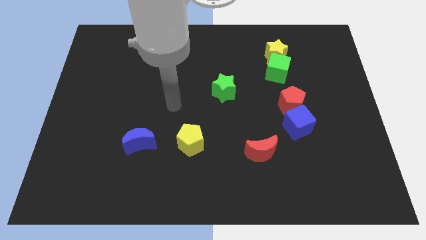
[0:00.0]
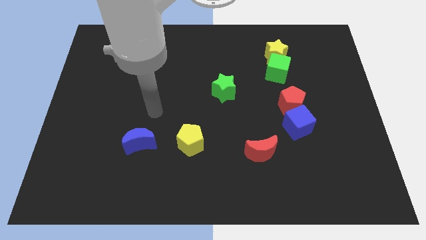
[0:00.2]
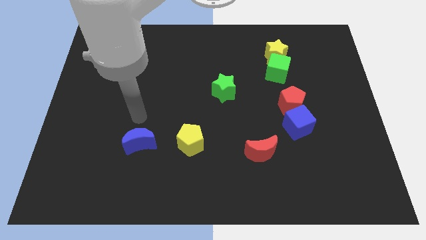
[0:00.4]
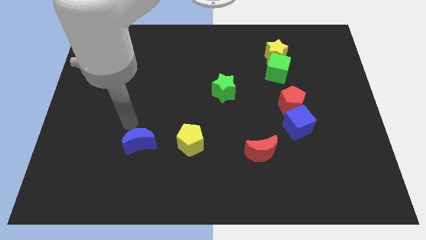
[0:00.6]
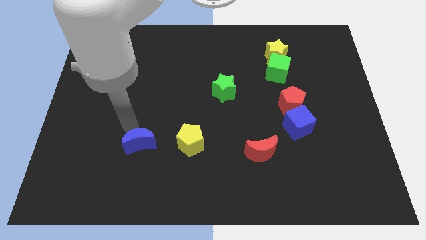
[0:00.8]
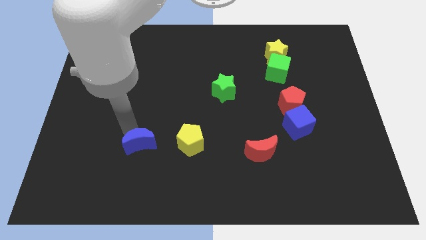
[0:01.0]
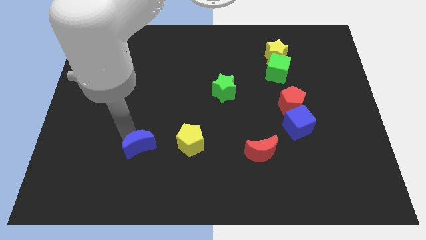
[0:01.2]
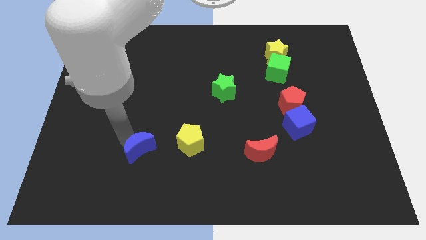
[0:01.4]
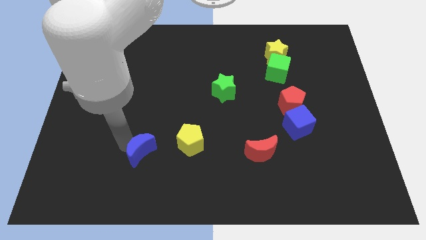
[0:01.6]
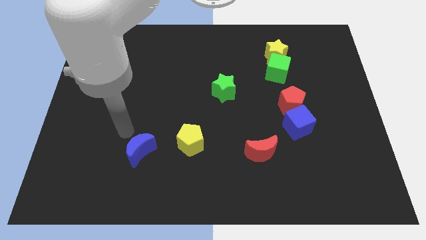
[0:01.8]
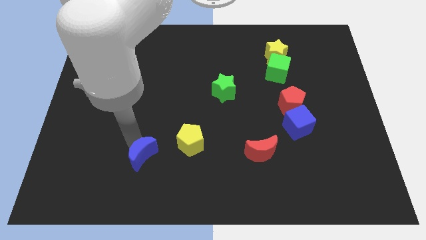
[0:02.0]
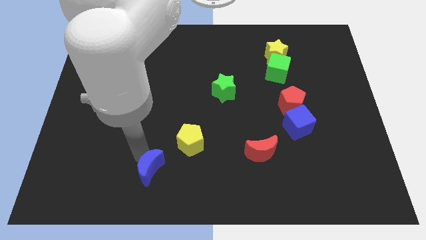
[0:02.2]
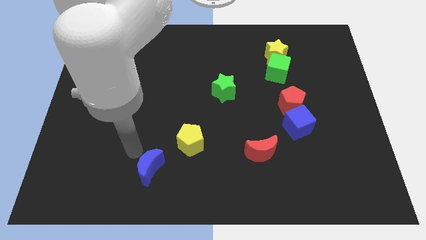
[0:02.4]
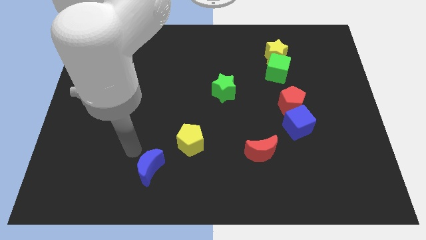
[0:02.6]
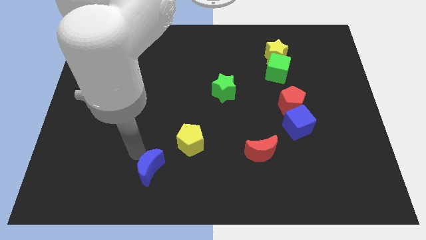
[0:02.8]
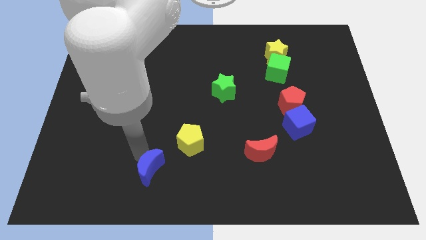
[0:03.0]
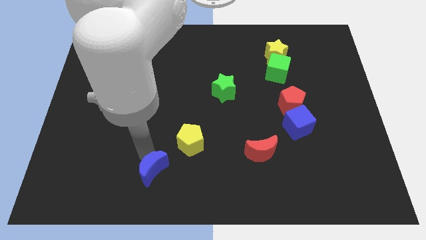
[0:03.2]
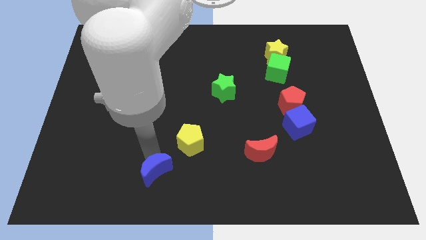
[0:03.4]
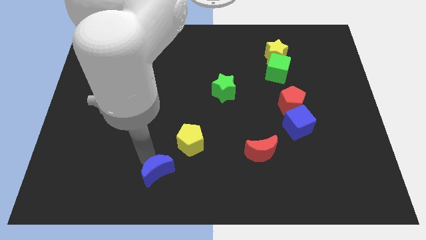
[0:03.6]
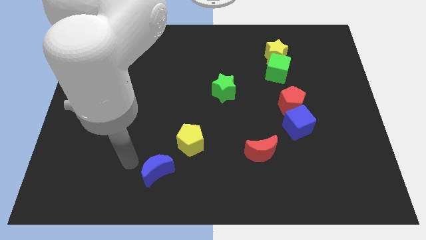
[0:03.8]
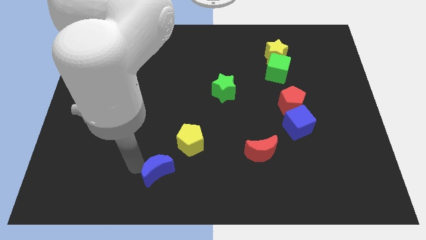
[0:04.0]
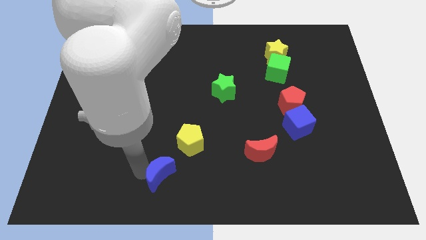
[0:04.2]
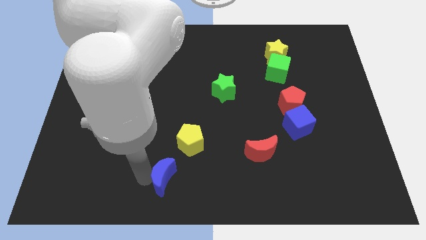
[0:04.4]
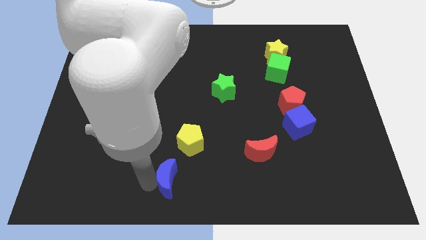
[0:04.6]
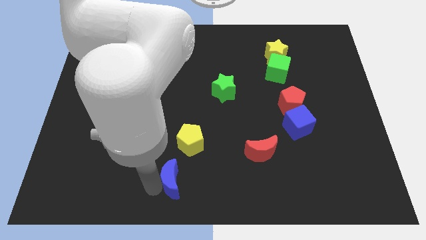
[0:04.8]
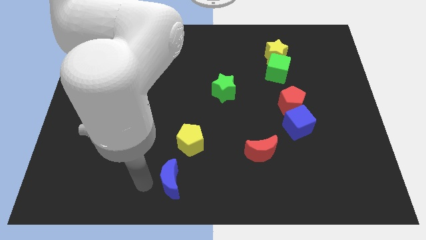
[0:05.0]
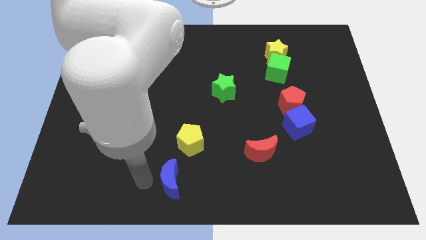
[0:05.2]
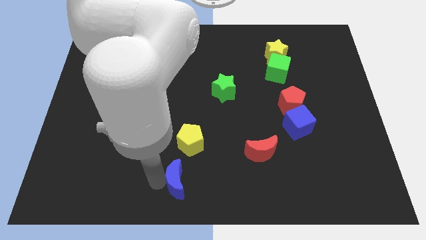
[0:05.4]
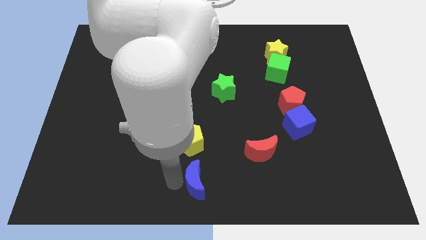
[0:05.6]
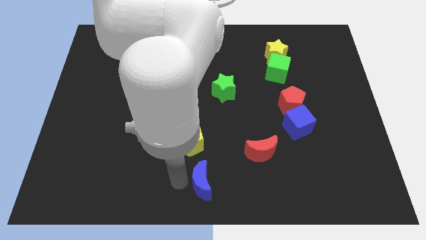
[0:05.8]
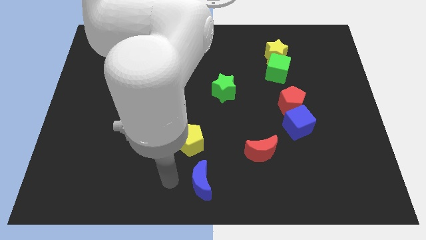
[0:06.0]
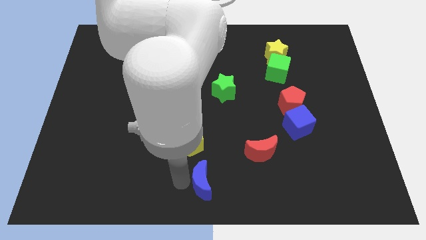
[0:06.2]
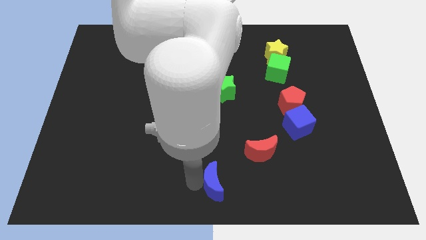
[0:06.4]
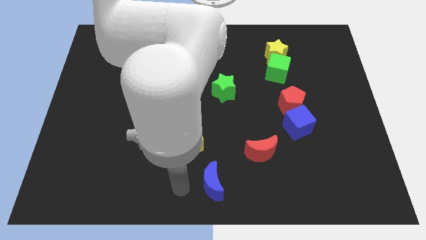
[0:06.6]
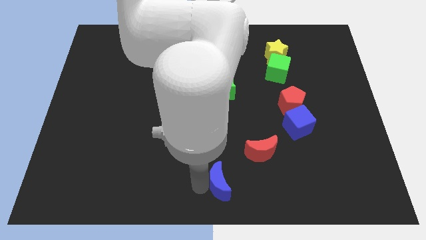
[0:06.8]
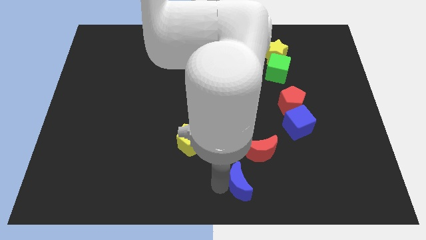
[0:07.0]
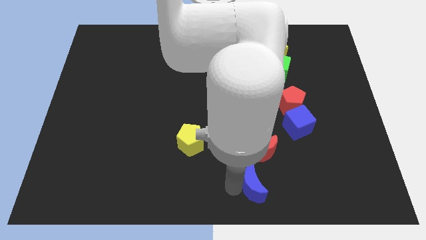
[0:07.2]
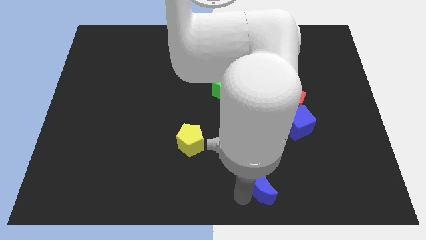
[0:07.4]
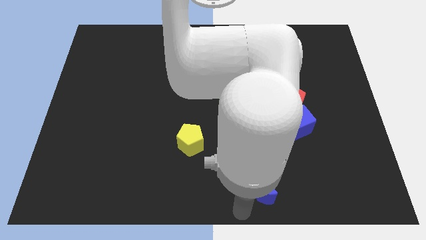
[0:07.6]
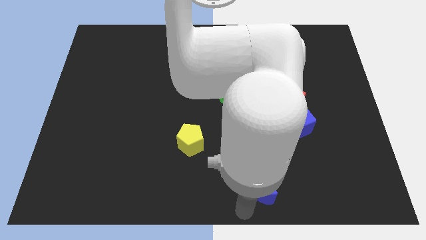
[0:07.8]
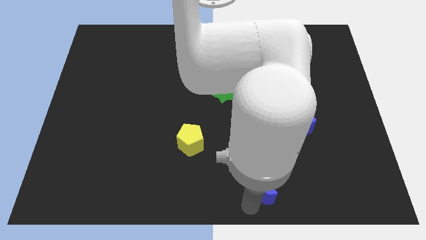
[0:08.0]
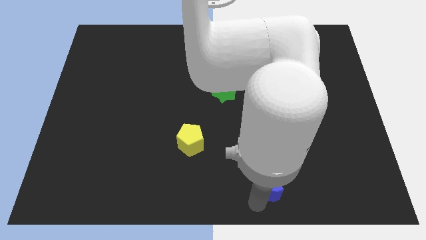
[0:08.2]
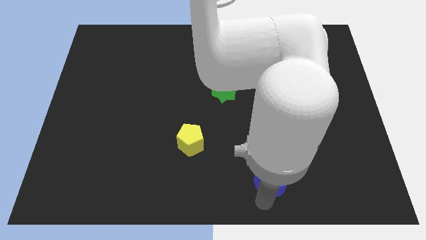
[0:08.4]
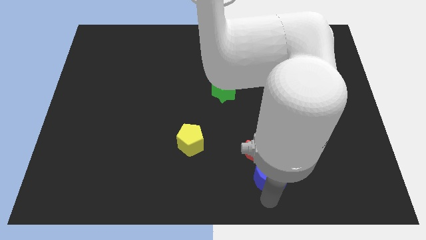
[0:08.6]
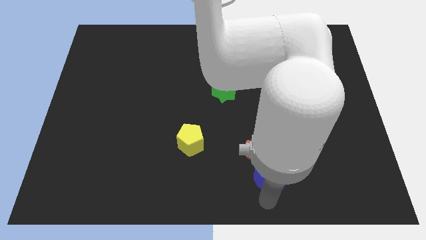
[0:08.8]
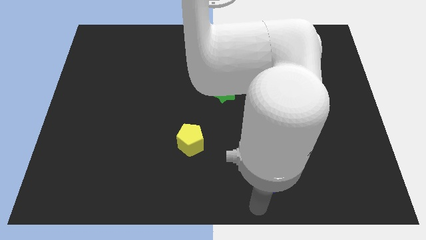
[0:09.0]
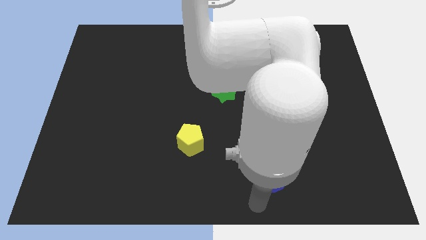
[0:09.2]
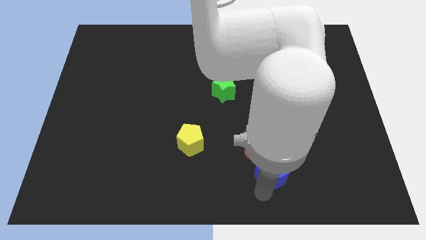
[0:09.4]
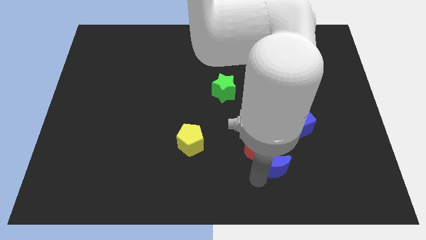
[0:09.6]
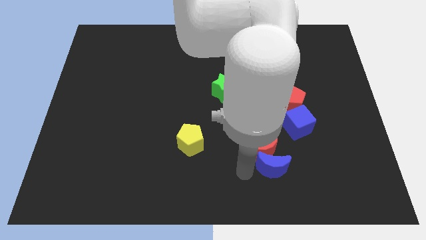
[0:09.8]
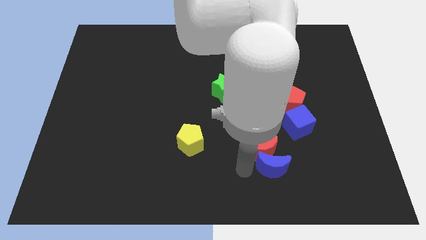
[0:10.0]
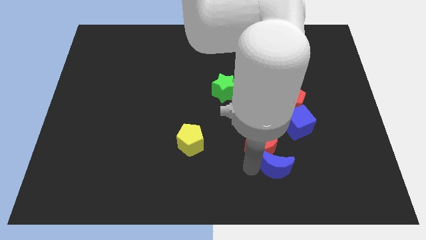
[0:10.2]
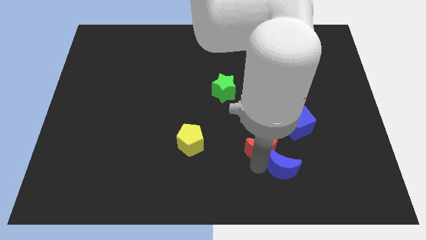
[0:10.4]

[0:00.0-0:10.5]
move the blue moon to the bottom side of the blue cube

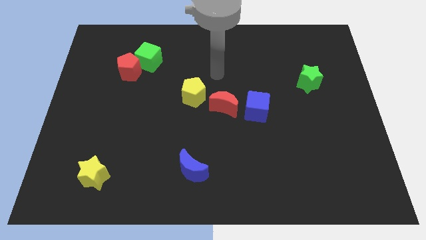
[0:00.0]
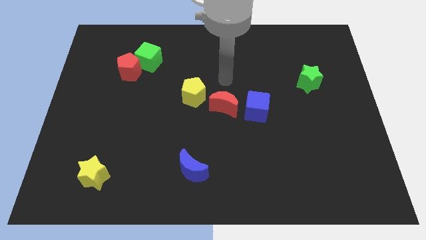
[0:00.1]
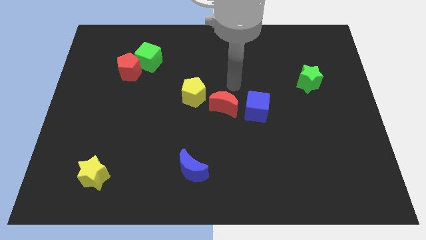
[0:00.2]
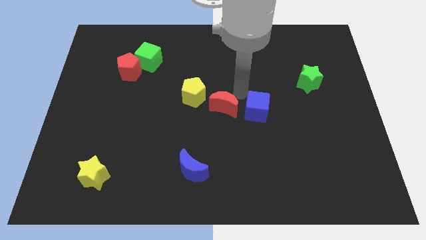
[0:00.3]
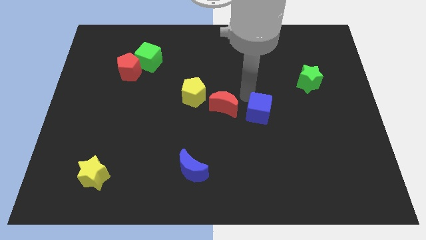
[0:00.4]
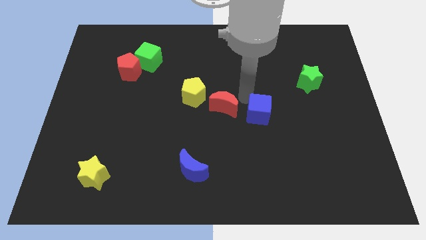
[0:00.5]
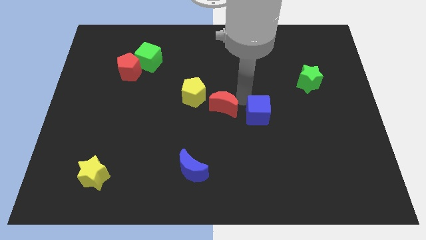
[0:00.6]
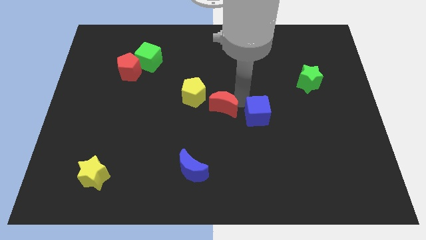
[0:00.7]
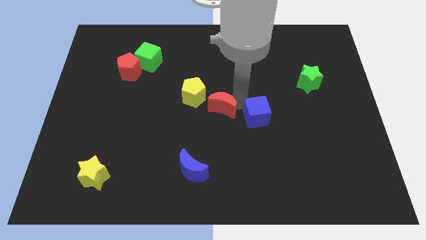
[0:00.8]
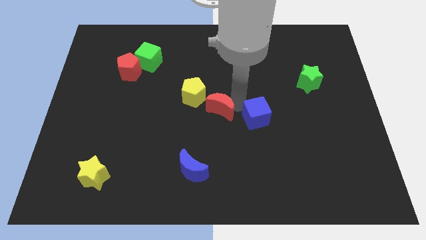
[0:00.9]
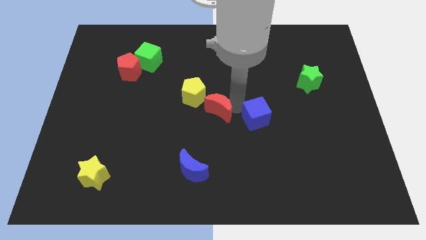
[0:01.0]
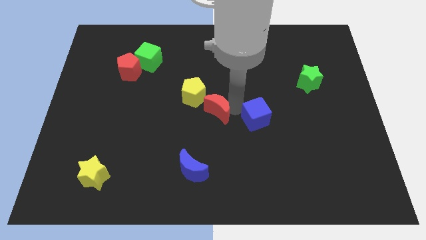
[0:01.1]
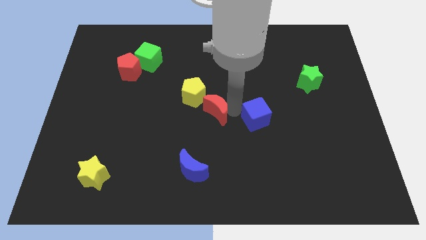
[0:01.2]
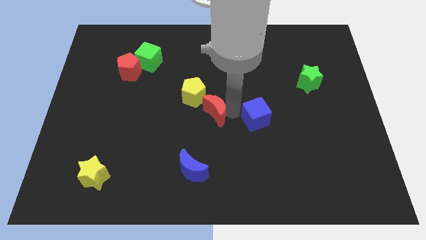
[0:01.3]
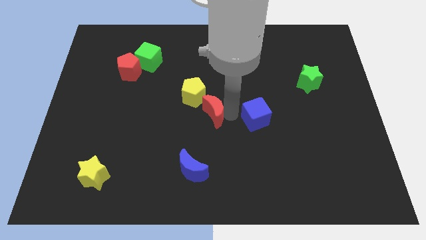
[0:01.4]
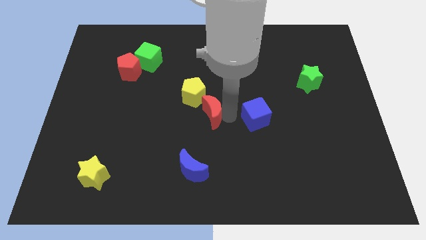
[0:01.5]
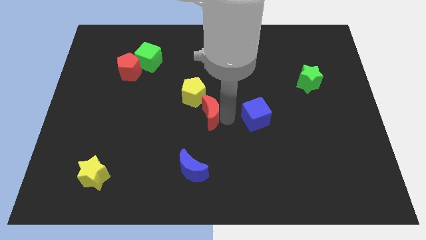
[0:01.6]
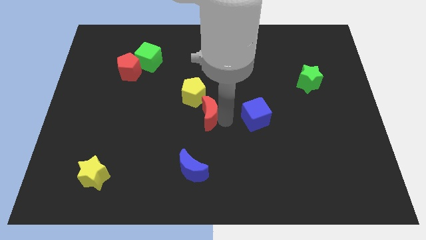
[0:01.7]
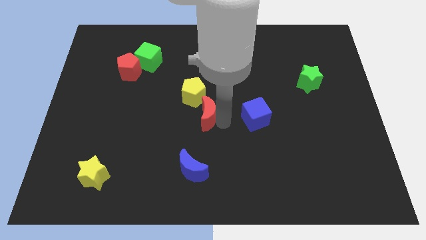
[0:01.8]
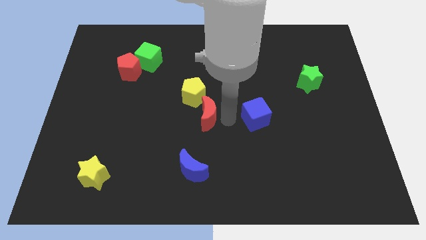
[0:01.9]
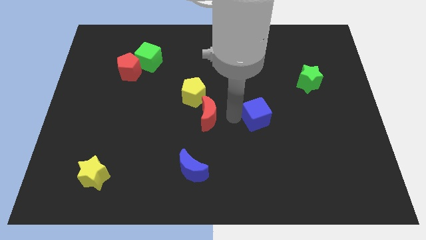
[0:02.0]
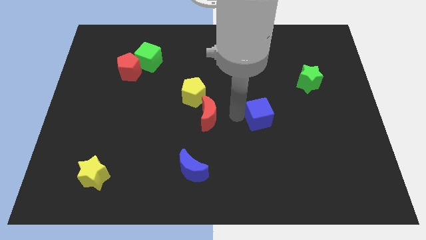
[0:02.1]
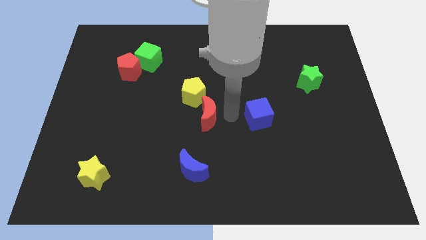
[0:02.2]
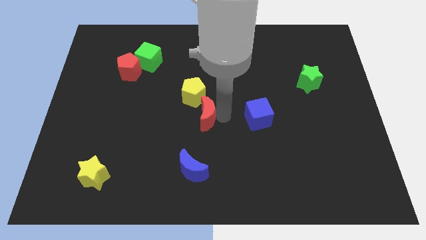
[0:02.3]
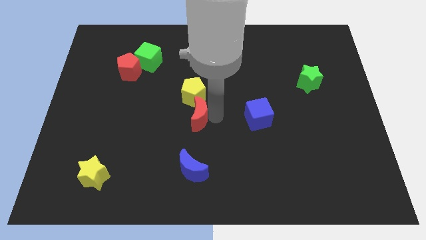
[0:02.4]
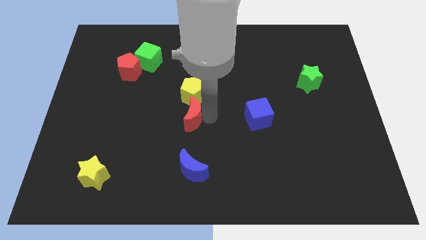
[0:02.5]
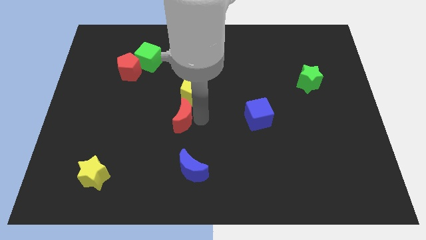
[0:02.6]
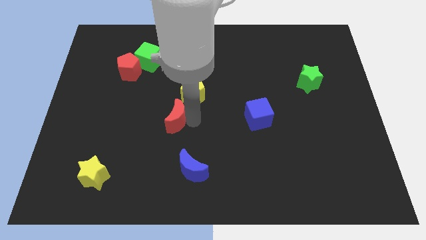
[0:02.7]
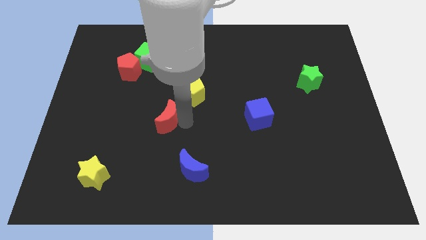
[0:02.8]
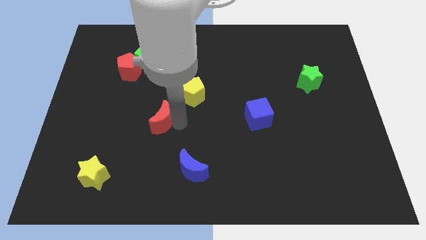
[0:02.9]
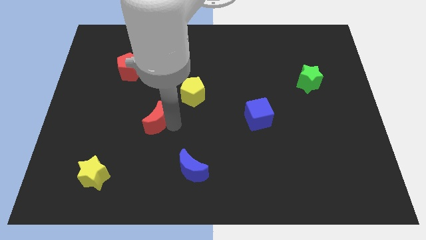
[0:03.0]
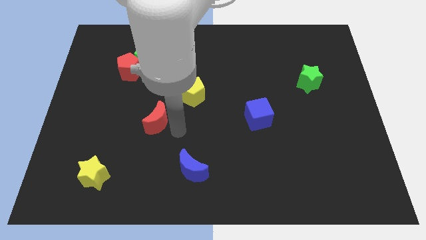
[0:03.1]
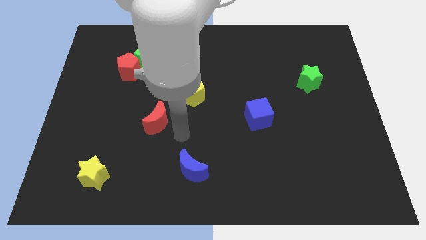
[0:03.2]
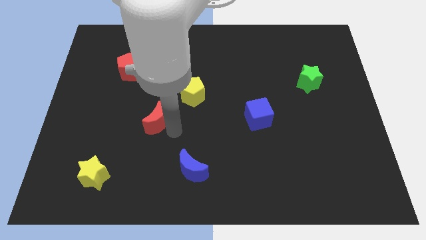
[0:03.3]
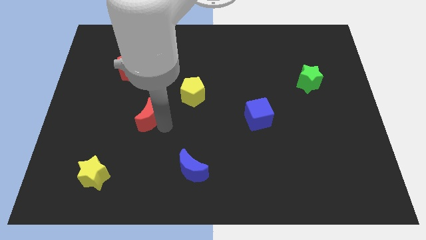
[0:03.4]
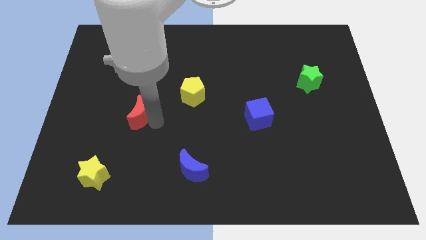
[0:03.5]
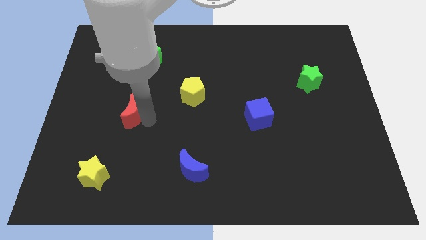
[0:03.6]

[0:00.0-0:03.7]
move the red moon below the red pentagon
